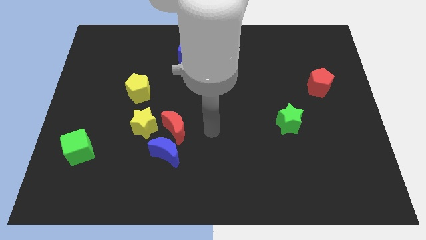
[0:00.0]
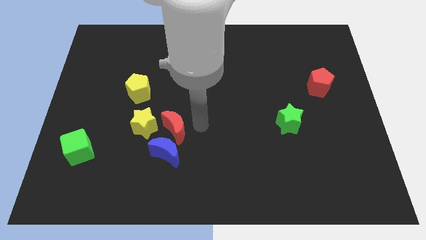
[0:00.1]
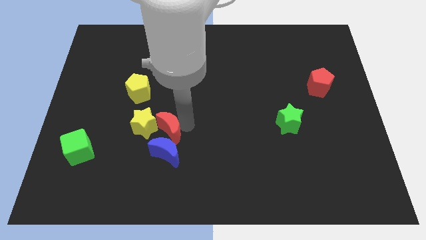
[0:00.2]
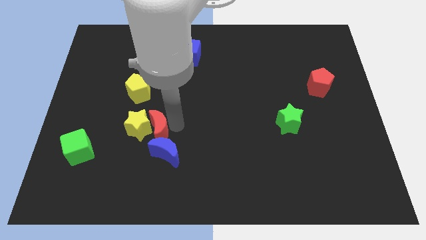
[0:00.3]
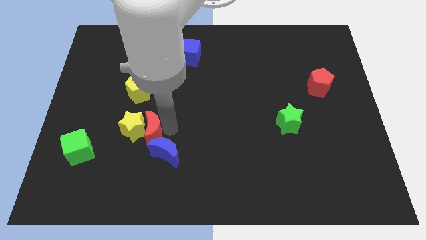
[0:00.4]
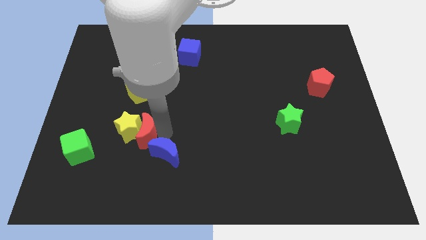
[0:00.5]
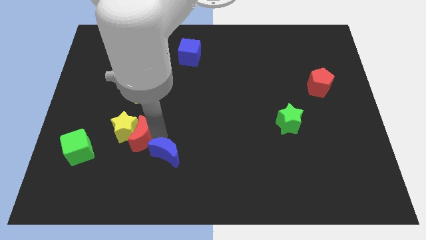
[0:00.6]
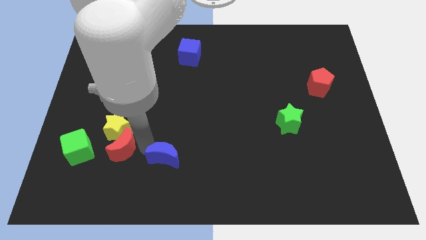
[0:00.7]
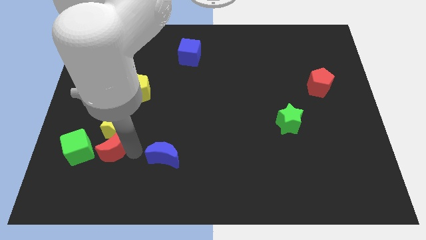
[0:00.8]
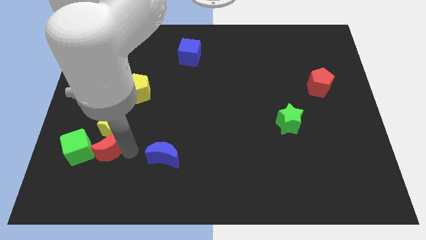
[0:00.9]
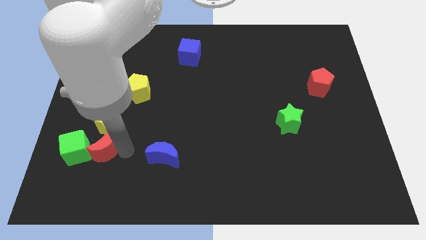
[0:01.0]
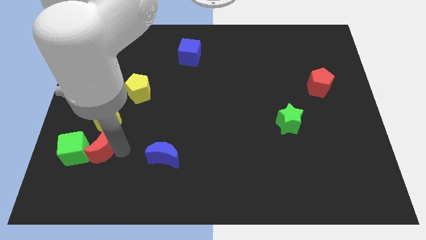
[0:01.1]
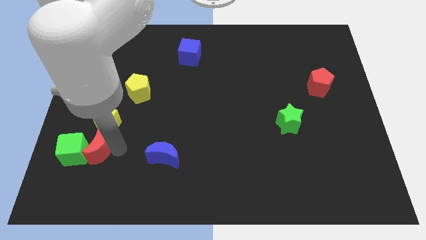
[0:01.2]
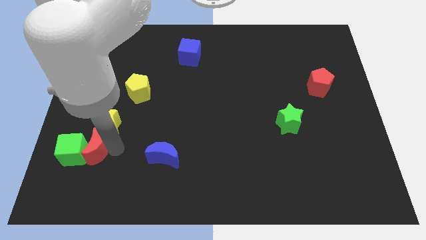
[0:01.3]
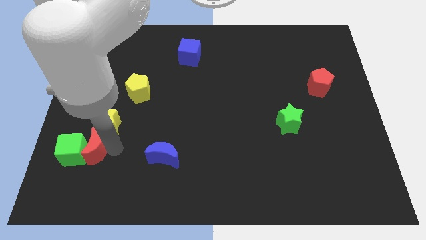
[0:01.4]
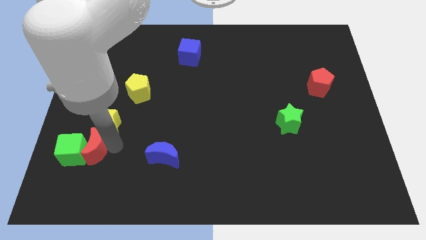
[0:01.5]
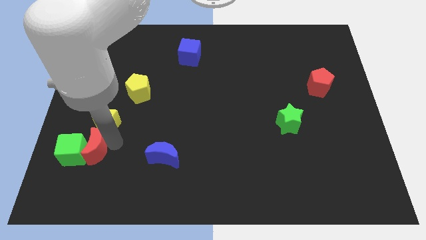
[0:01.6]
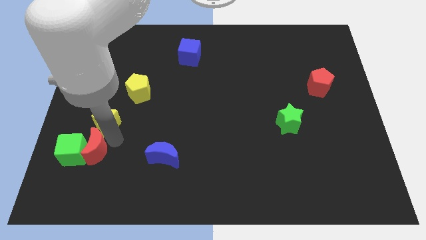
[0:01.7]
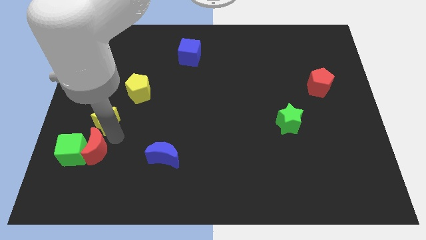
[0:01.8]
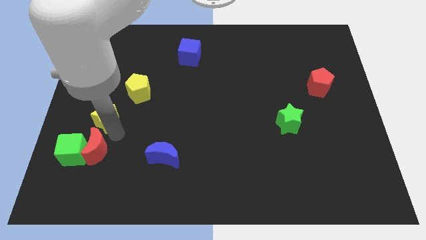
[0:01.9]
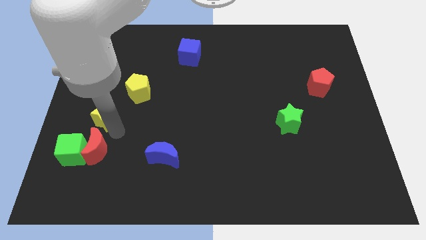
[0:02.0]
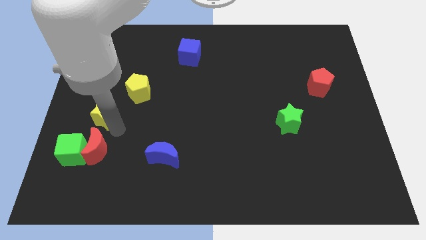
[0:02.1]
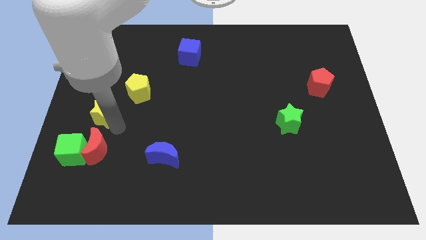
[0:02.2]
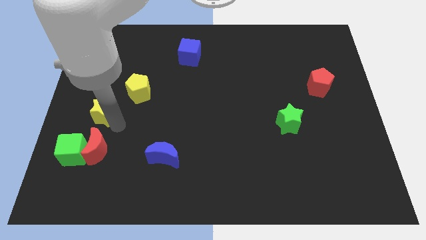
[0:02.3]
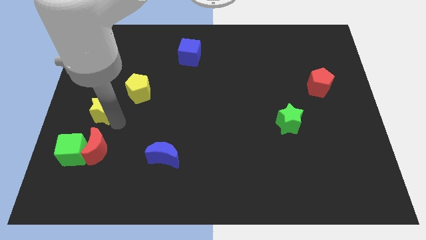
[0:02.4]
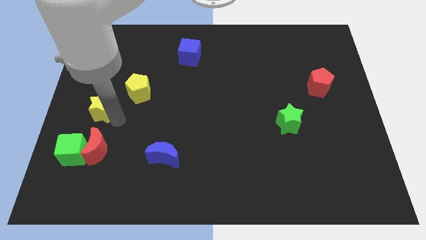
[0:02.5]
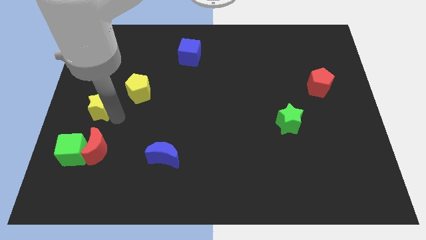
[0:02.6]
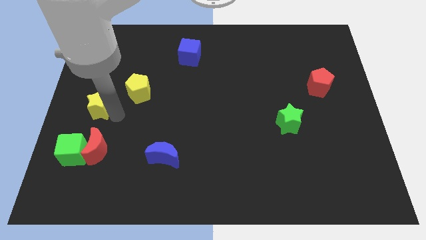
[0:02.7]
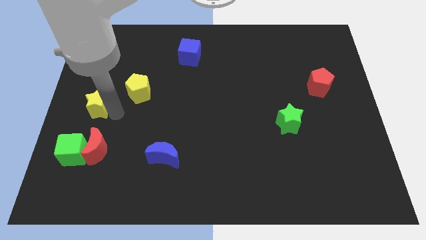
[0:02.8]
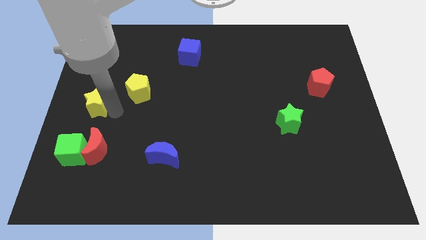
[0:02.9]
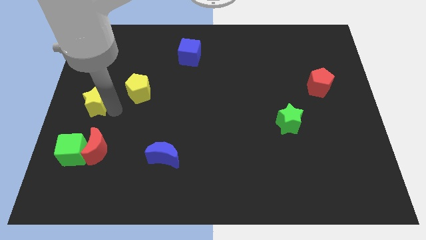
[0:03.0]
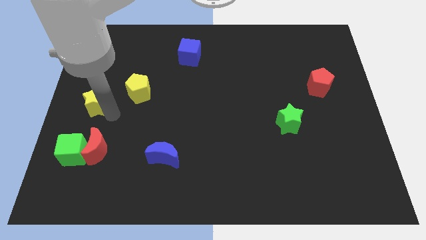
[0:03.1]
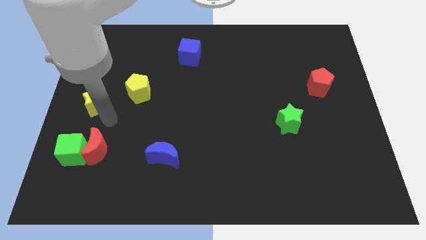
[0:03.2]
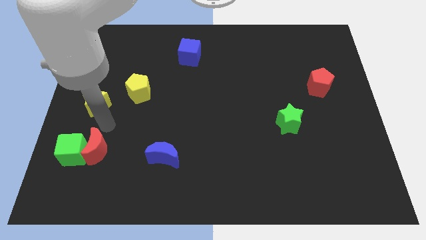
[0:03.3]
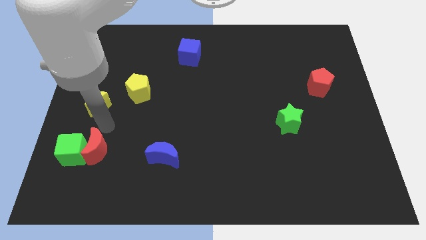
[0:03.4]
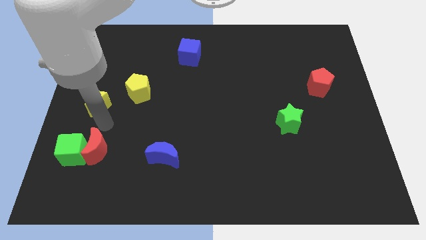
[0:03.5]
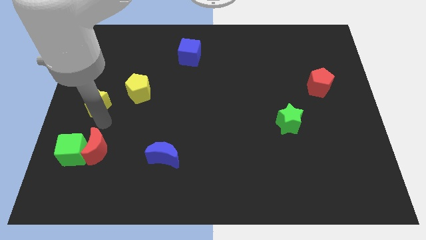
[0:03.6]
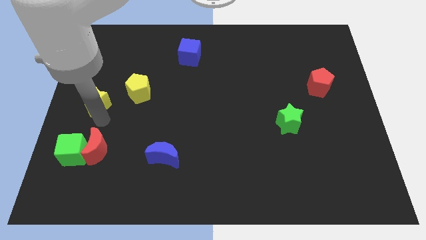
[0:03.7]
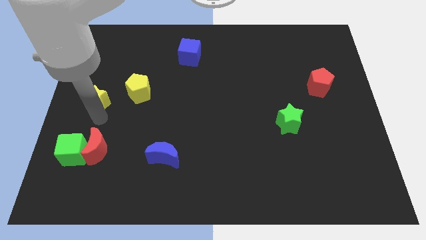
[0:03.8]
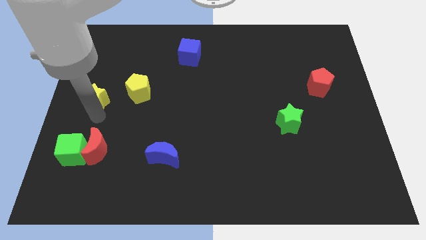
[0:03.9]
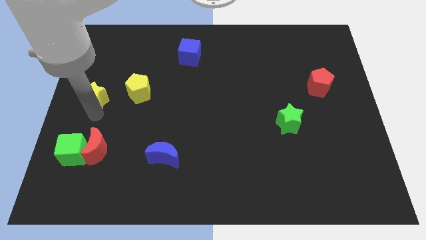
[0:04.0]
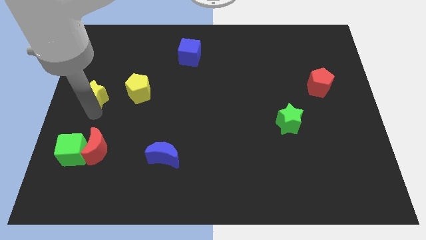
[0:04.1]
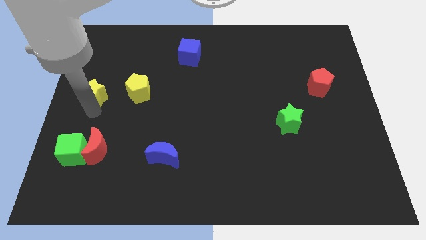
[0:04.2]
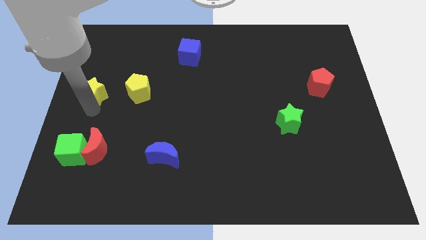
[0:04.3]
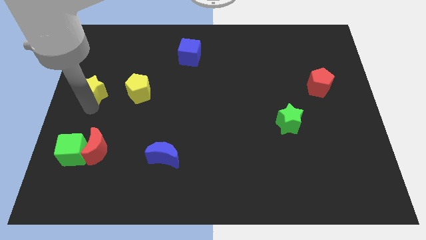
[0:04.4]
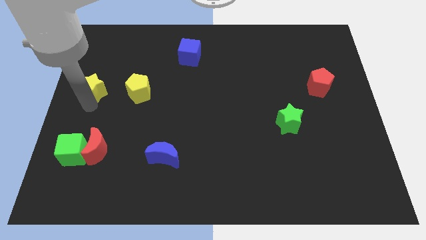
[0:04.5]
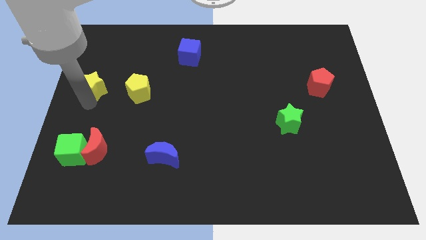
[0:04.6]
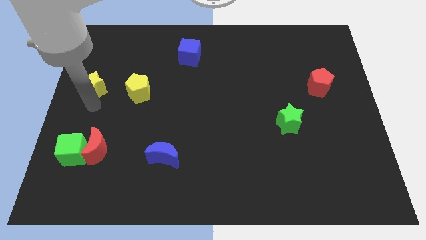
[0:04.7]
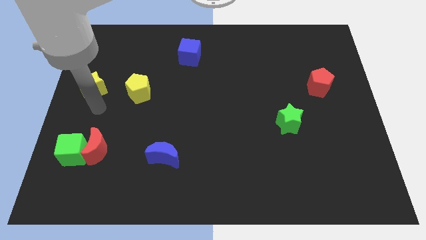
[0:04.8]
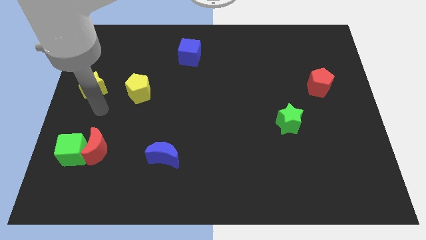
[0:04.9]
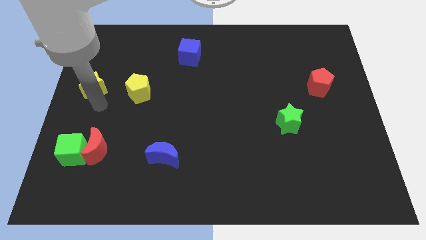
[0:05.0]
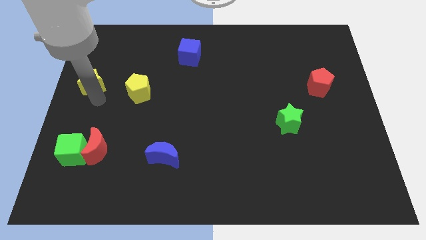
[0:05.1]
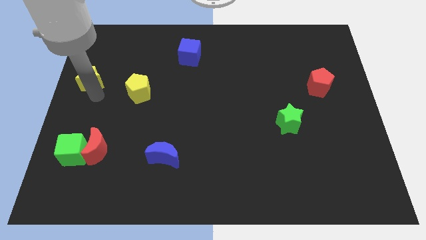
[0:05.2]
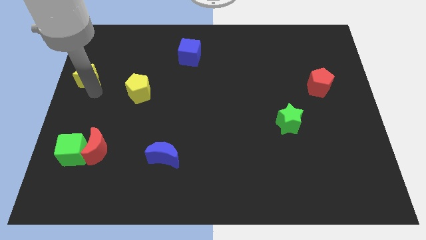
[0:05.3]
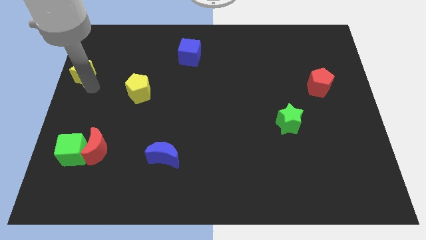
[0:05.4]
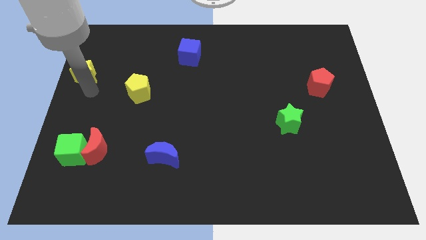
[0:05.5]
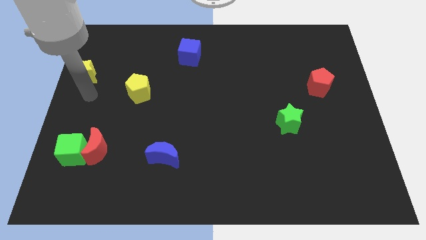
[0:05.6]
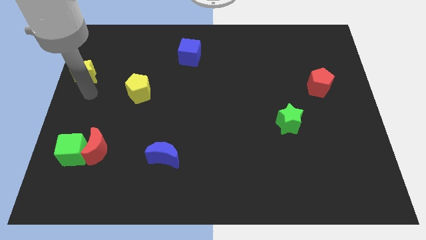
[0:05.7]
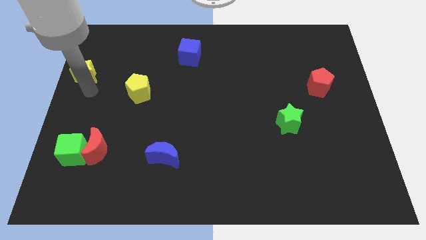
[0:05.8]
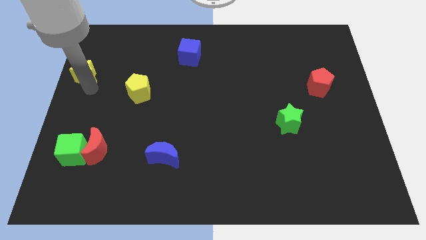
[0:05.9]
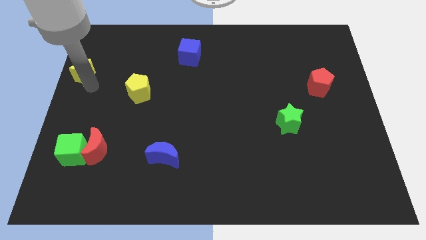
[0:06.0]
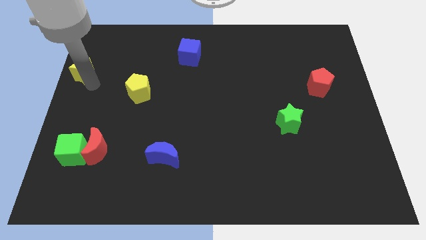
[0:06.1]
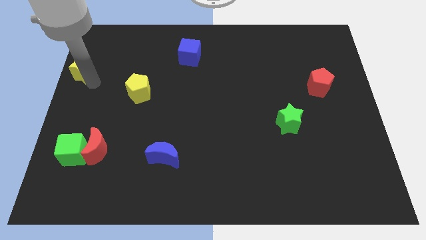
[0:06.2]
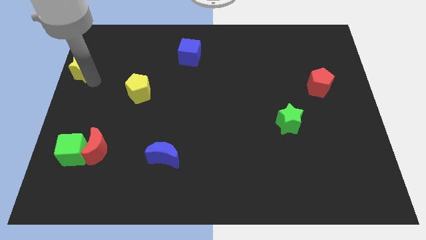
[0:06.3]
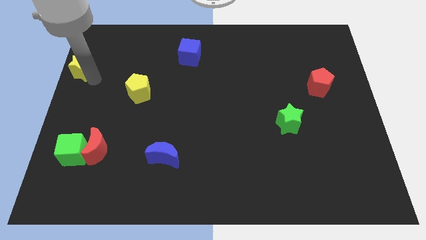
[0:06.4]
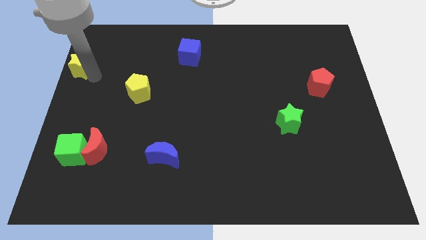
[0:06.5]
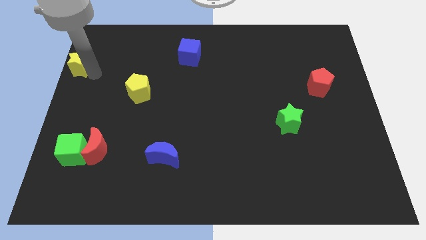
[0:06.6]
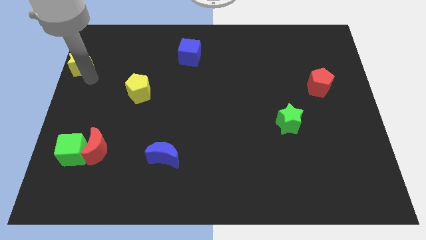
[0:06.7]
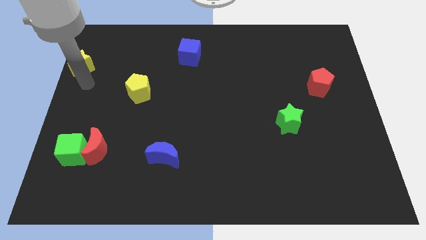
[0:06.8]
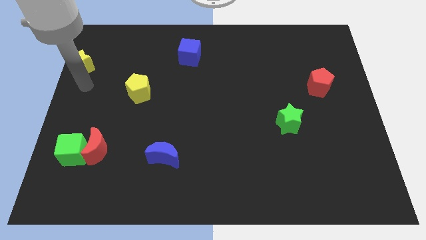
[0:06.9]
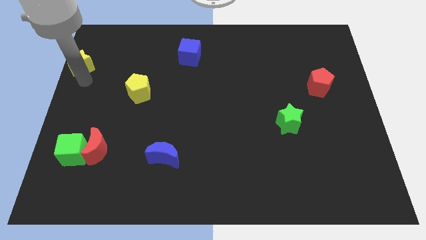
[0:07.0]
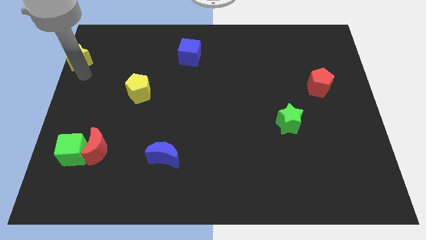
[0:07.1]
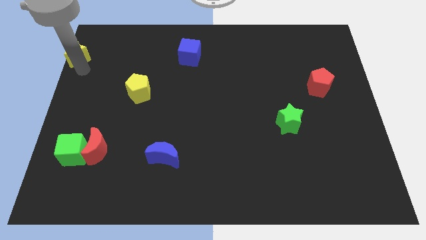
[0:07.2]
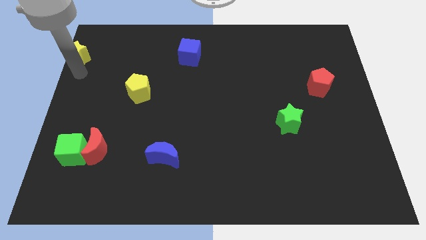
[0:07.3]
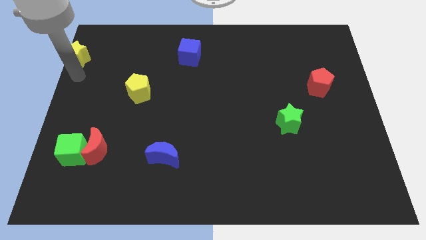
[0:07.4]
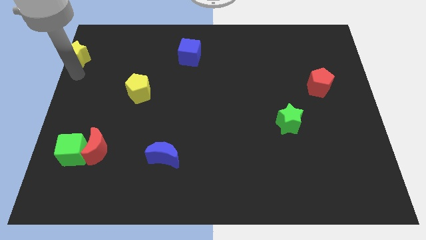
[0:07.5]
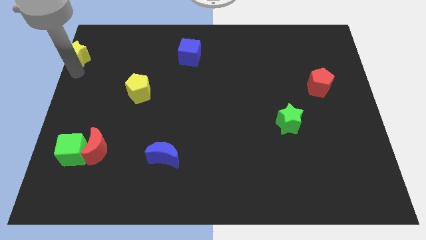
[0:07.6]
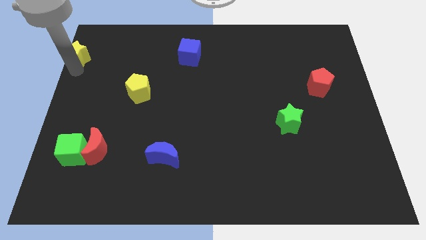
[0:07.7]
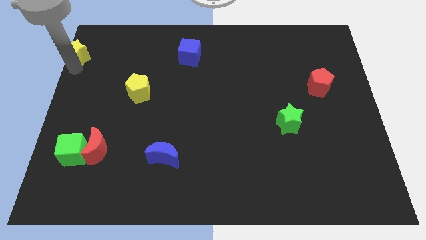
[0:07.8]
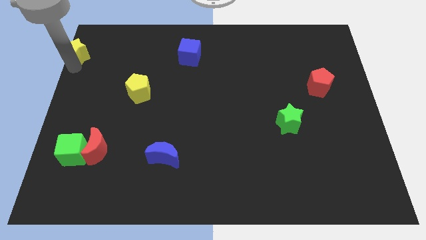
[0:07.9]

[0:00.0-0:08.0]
put the yellow star to the top left of the board
